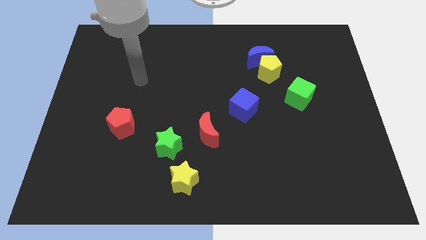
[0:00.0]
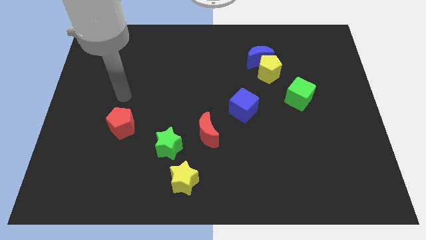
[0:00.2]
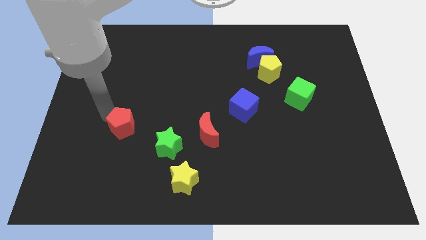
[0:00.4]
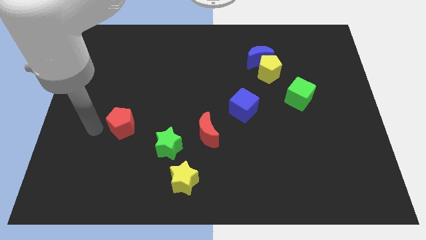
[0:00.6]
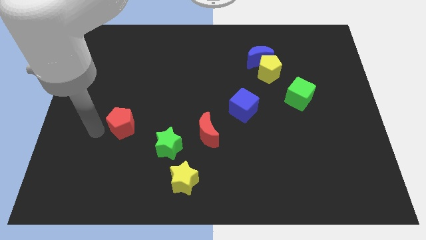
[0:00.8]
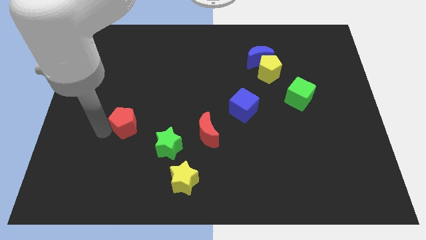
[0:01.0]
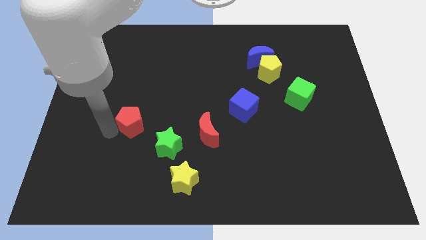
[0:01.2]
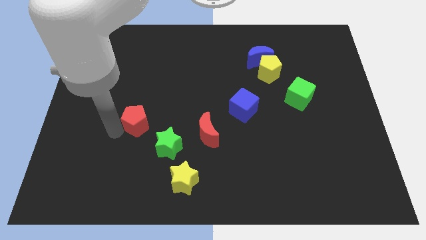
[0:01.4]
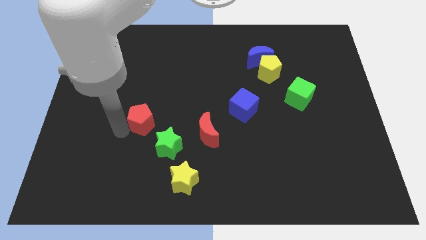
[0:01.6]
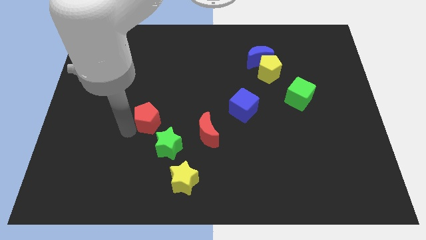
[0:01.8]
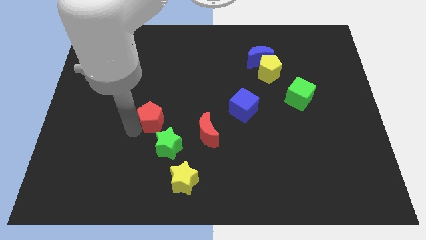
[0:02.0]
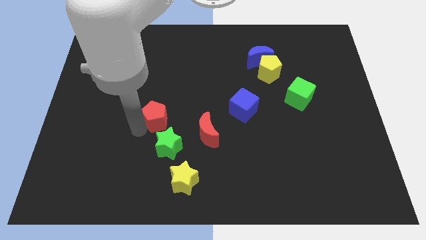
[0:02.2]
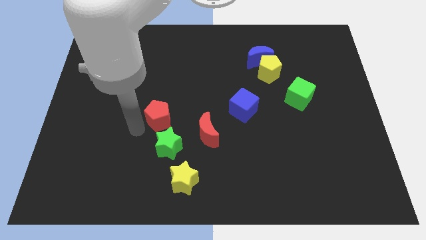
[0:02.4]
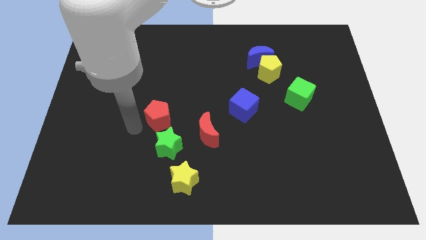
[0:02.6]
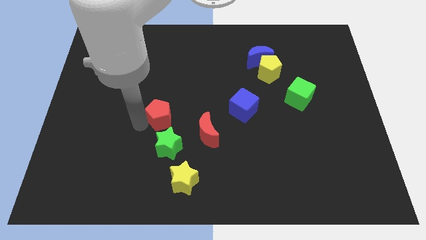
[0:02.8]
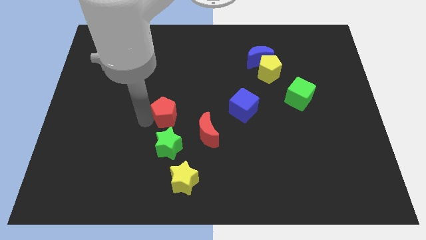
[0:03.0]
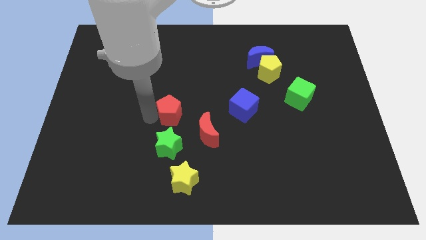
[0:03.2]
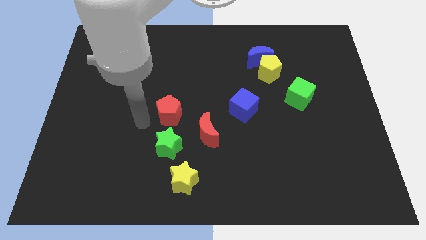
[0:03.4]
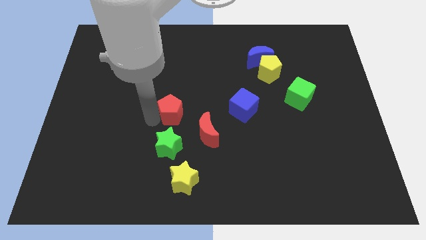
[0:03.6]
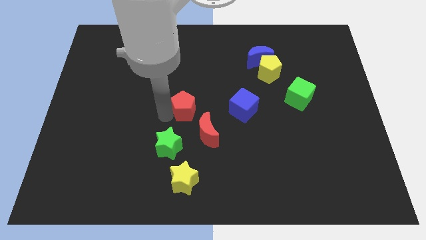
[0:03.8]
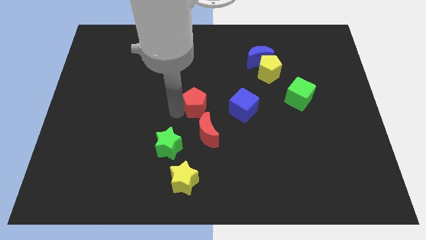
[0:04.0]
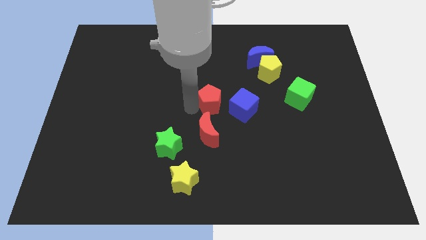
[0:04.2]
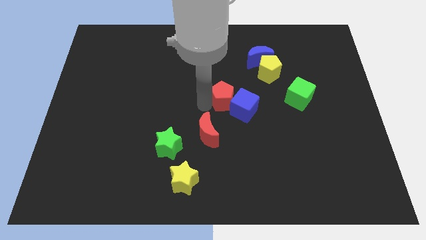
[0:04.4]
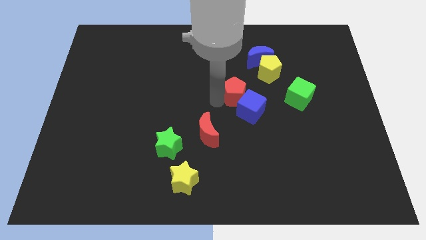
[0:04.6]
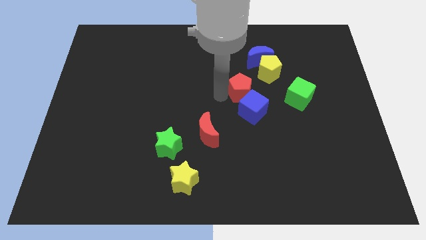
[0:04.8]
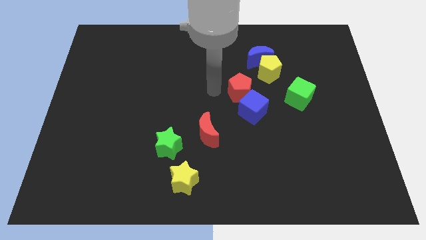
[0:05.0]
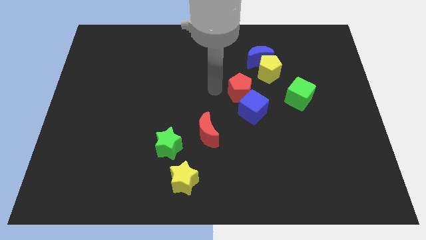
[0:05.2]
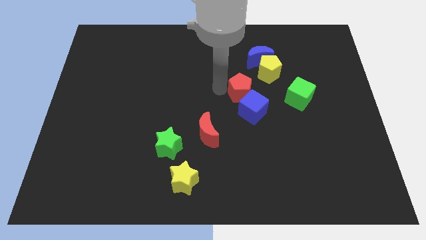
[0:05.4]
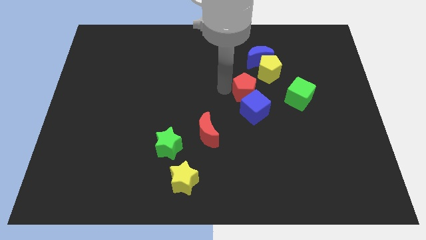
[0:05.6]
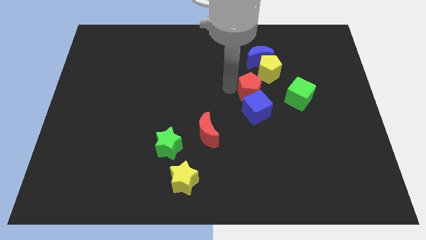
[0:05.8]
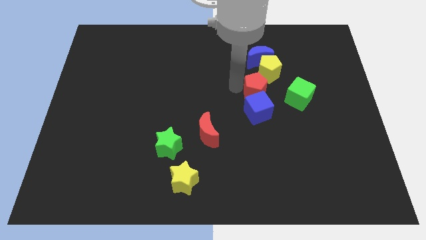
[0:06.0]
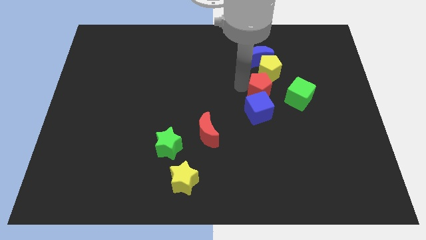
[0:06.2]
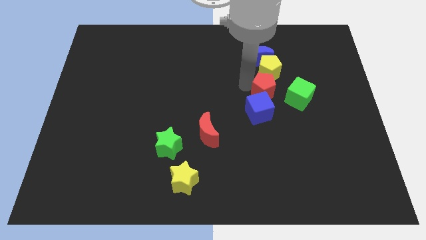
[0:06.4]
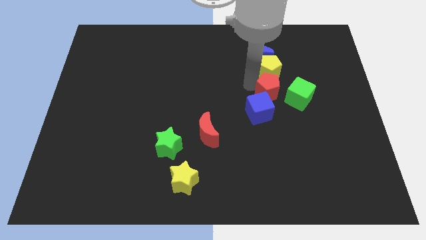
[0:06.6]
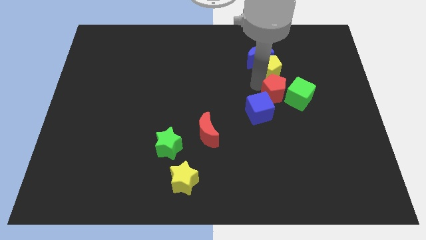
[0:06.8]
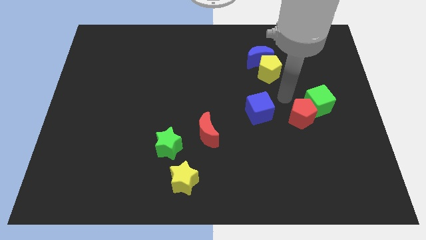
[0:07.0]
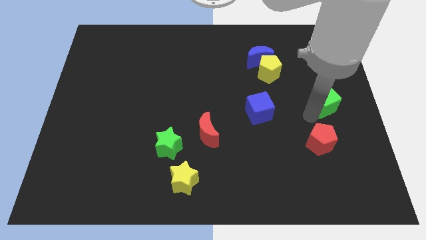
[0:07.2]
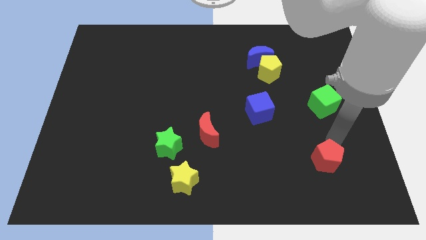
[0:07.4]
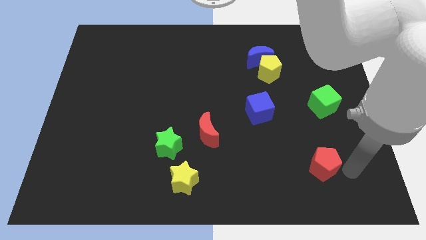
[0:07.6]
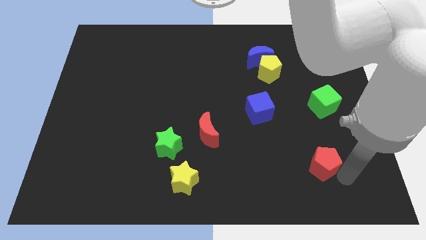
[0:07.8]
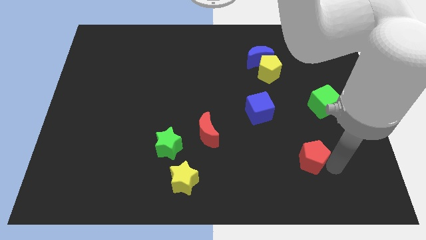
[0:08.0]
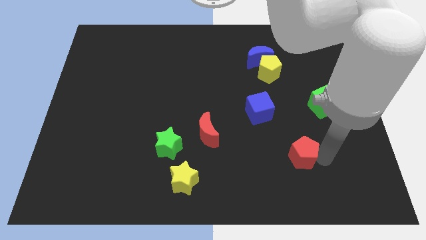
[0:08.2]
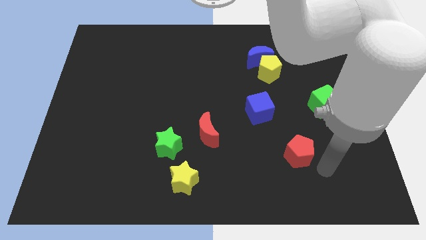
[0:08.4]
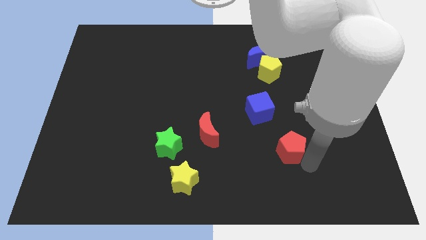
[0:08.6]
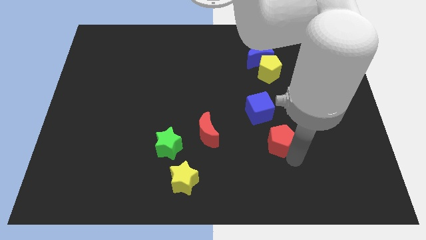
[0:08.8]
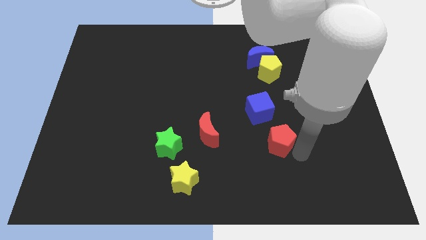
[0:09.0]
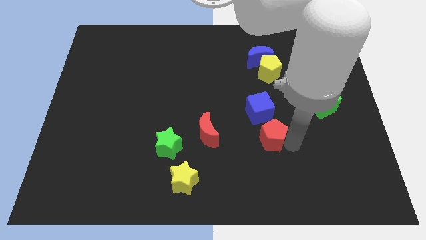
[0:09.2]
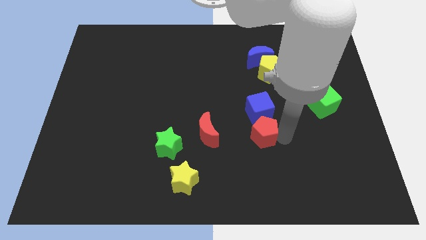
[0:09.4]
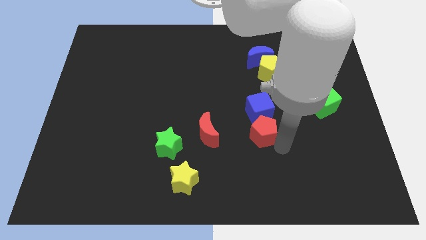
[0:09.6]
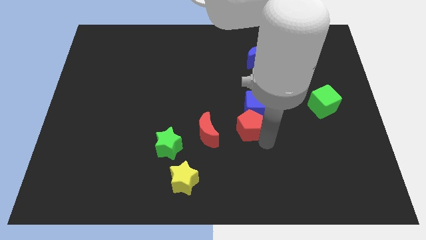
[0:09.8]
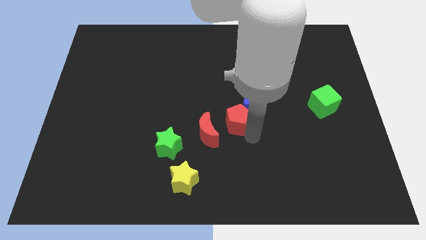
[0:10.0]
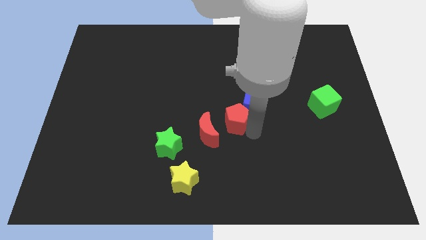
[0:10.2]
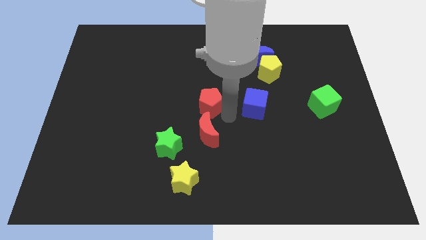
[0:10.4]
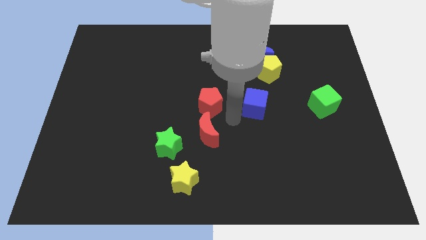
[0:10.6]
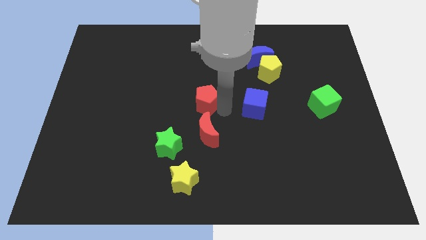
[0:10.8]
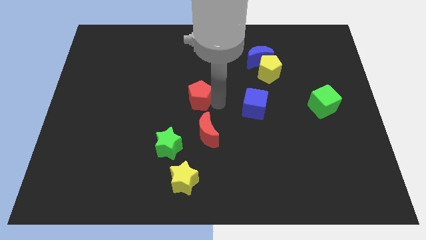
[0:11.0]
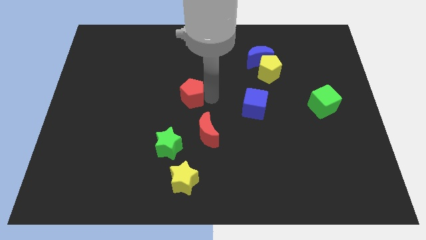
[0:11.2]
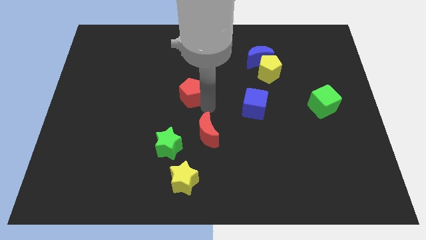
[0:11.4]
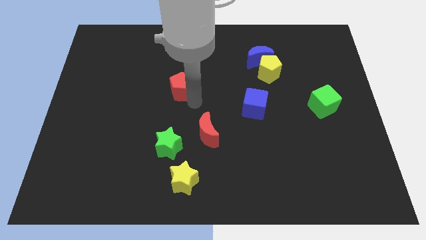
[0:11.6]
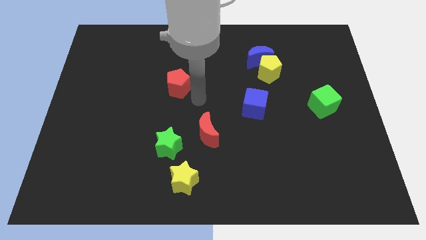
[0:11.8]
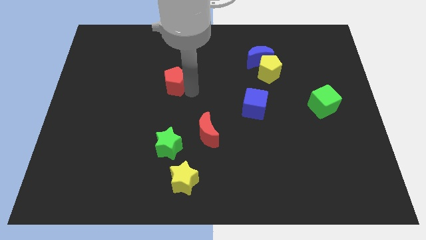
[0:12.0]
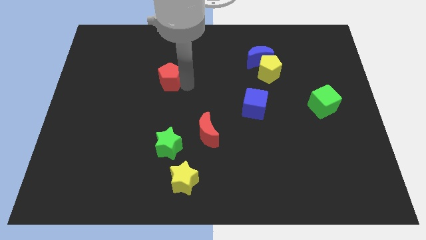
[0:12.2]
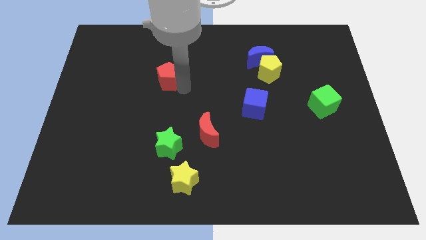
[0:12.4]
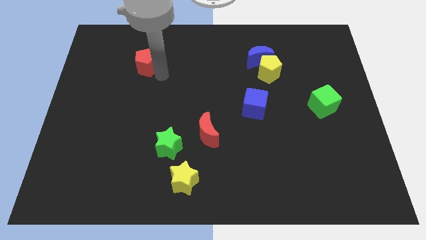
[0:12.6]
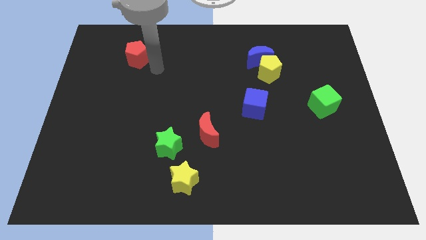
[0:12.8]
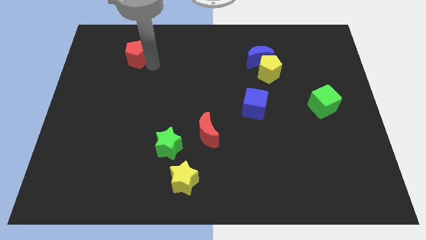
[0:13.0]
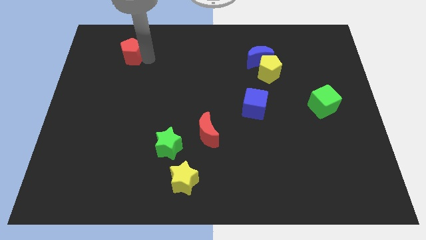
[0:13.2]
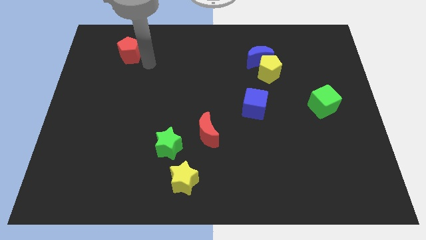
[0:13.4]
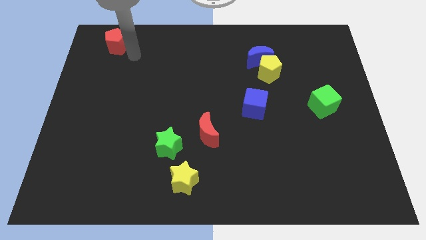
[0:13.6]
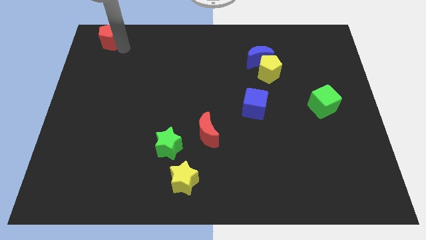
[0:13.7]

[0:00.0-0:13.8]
move the red pentagon to the upper left corner
